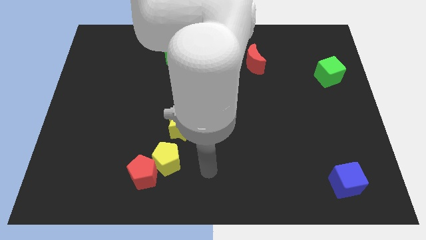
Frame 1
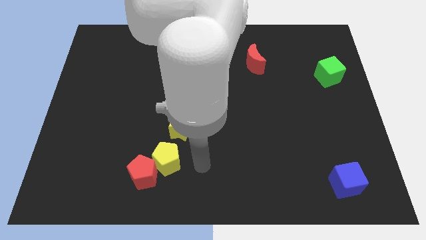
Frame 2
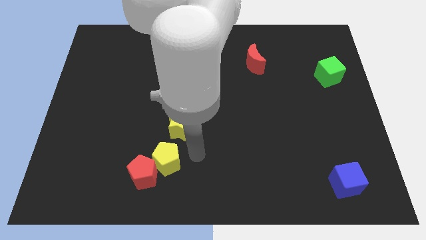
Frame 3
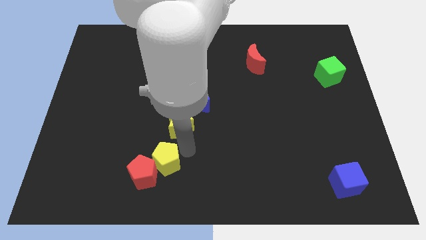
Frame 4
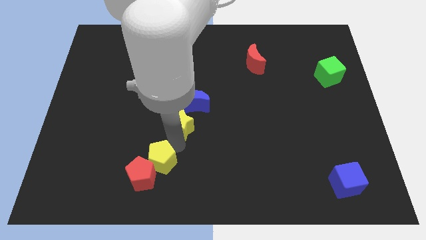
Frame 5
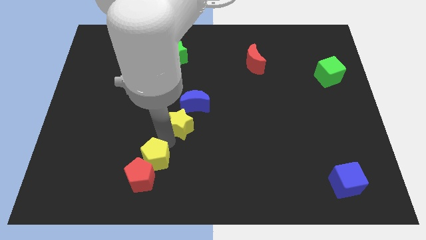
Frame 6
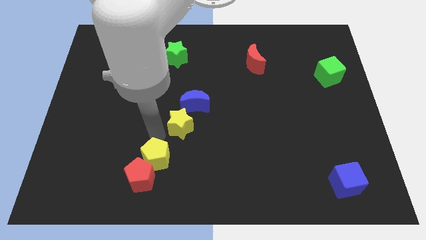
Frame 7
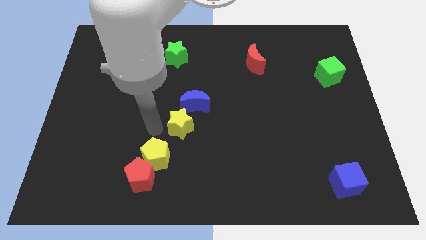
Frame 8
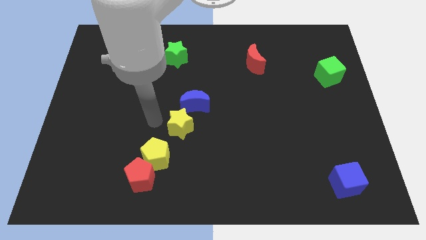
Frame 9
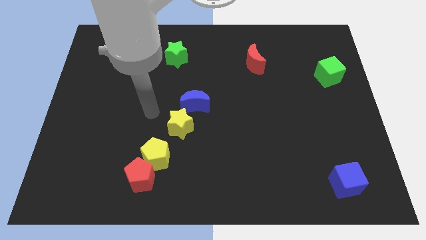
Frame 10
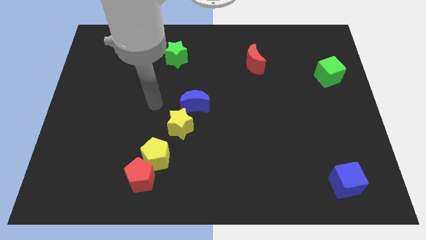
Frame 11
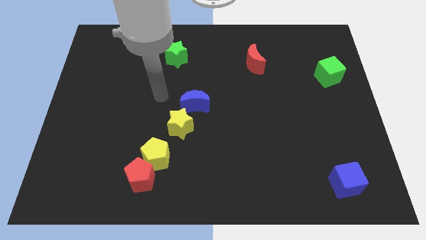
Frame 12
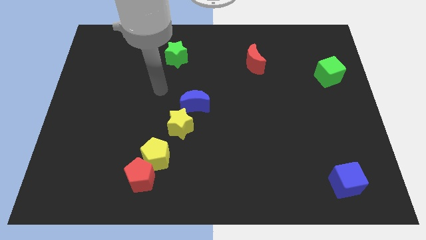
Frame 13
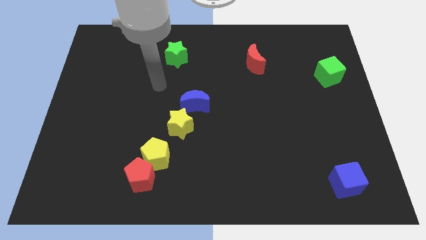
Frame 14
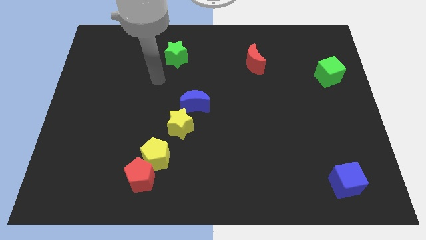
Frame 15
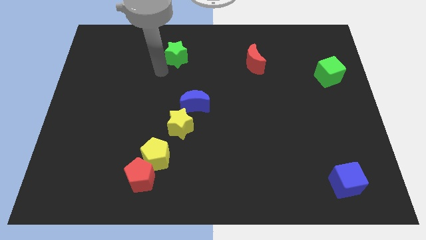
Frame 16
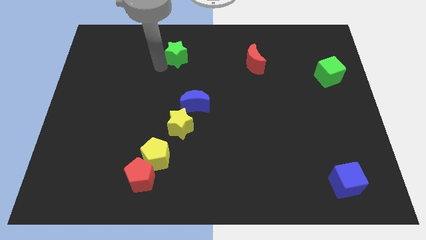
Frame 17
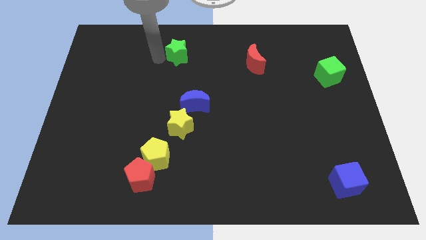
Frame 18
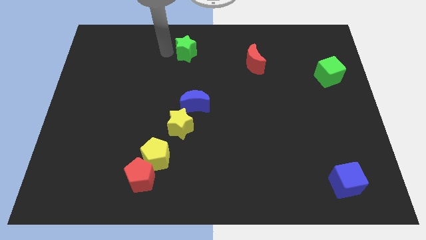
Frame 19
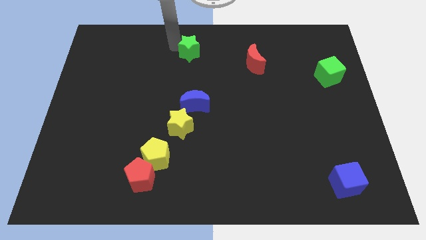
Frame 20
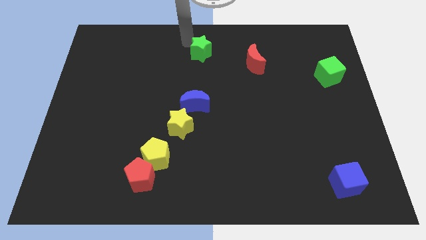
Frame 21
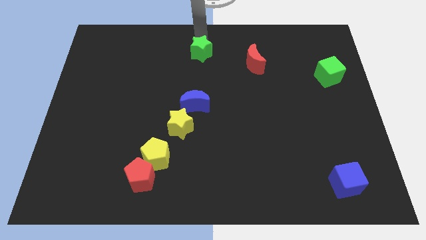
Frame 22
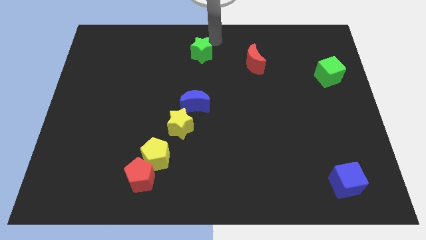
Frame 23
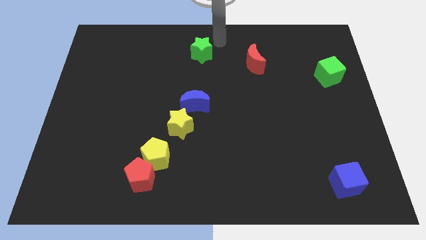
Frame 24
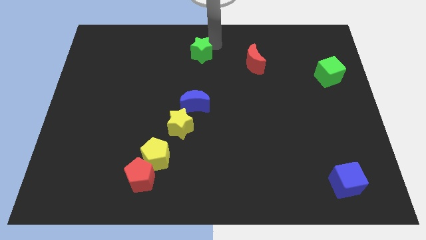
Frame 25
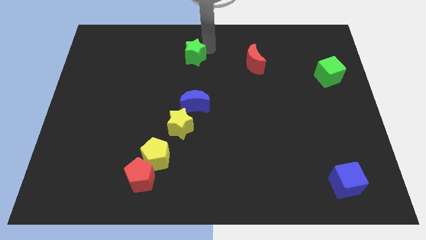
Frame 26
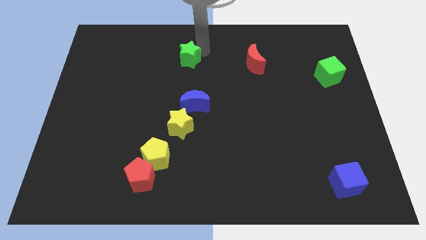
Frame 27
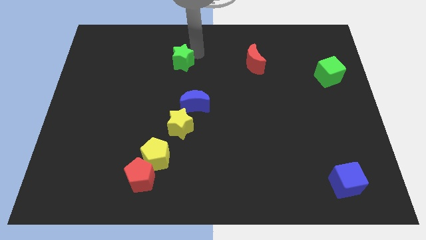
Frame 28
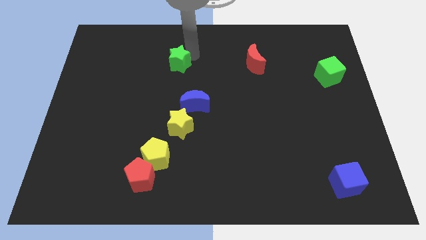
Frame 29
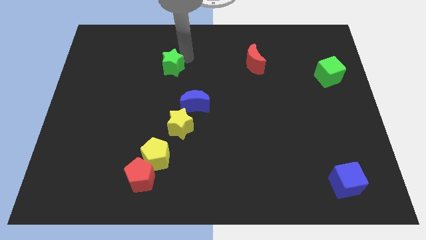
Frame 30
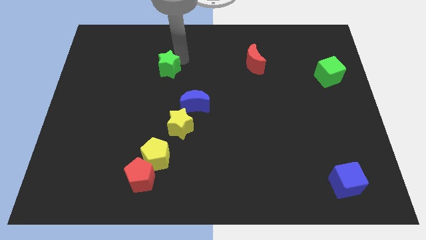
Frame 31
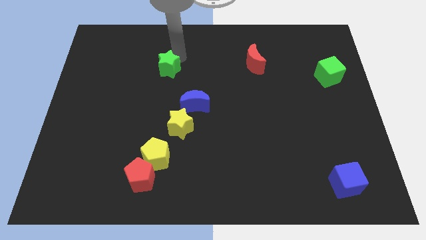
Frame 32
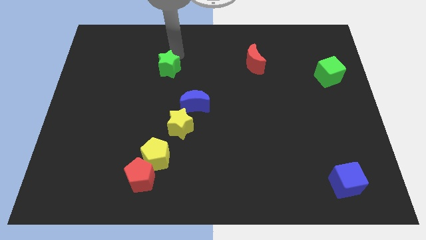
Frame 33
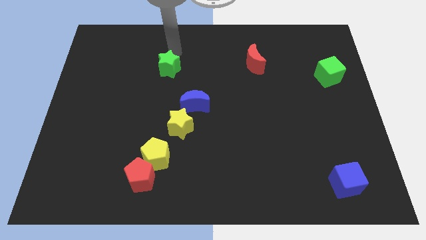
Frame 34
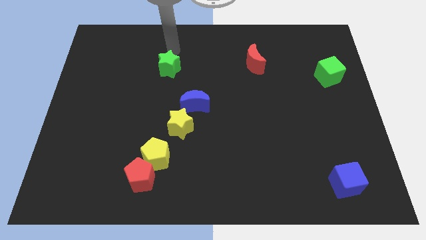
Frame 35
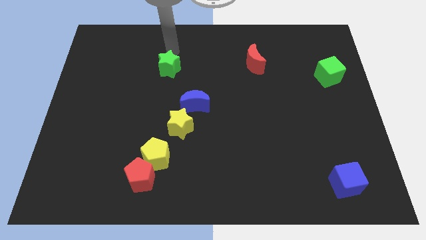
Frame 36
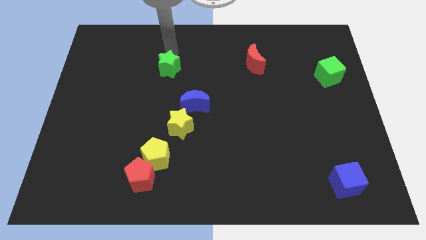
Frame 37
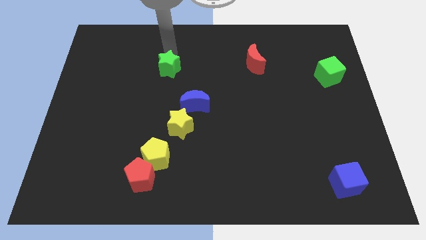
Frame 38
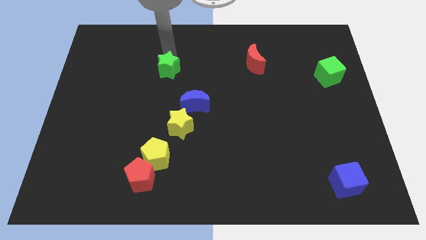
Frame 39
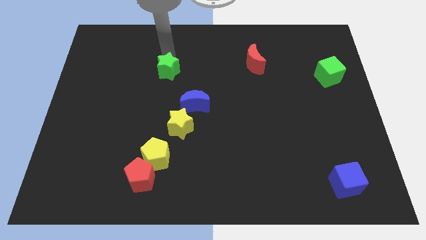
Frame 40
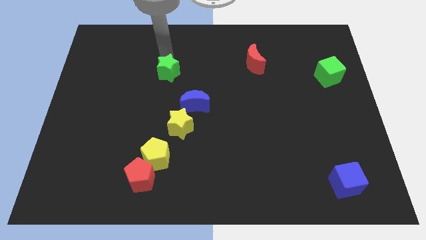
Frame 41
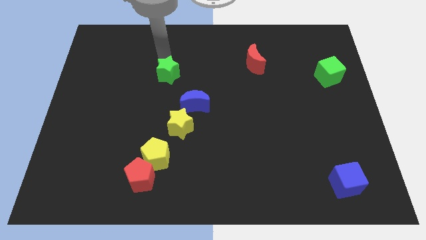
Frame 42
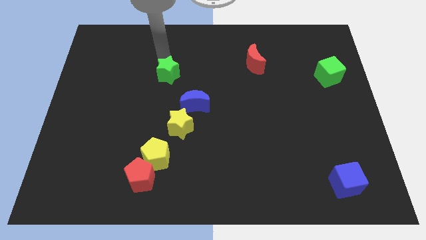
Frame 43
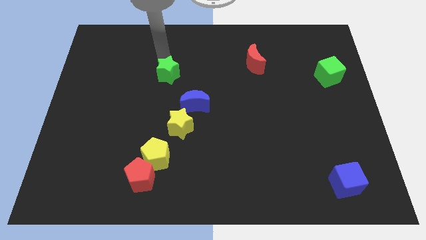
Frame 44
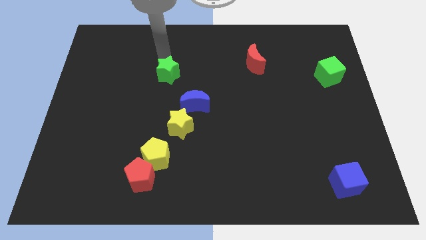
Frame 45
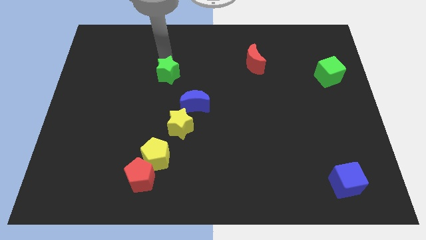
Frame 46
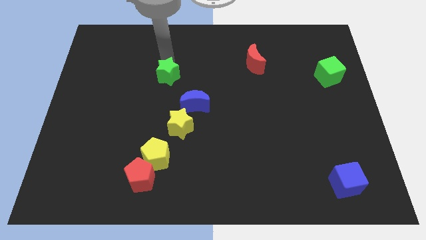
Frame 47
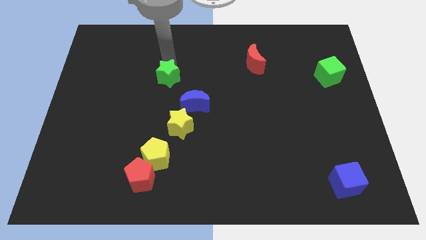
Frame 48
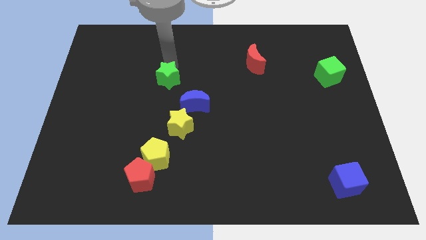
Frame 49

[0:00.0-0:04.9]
slide the green star downwards somewhat

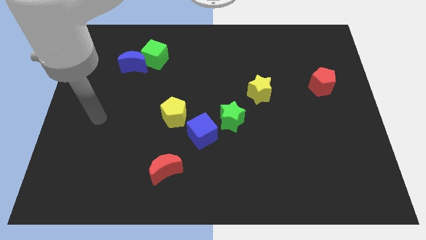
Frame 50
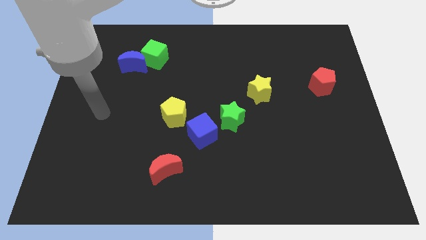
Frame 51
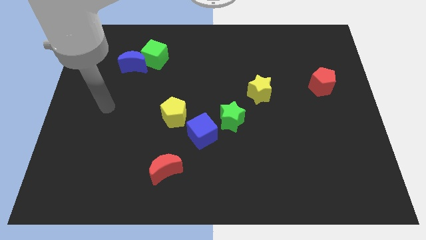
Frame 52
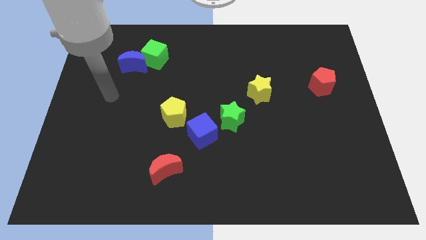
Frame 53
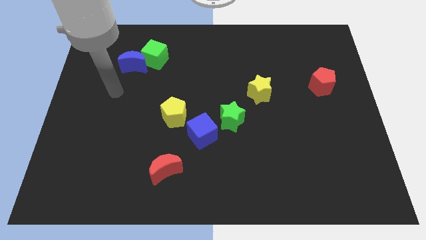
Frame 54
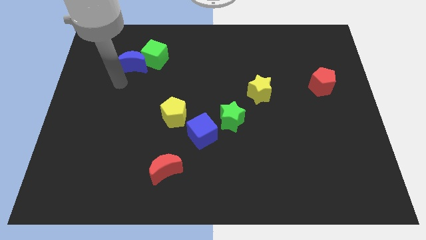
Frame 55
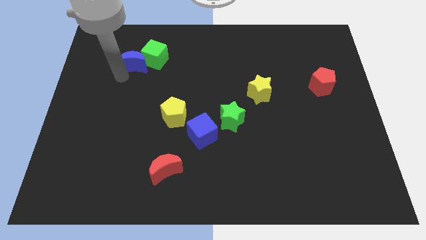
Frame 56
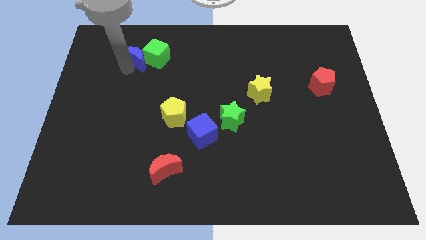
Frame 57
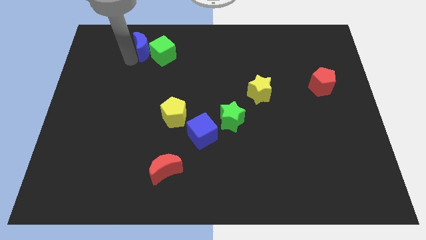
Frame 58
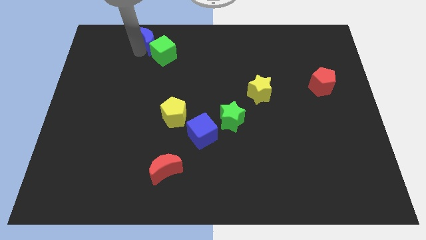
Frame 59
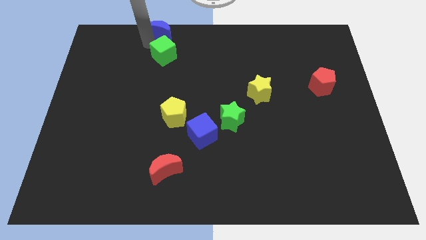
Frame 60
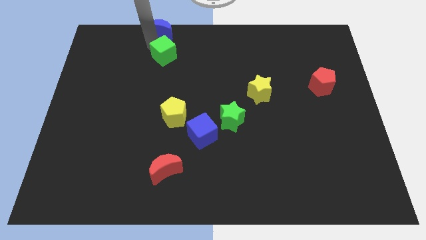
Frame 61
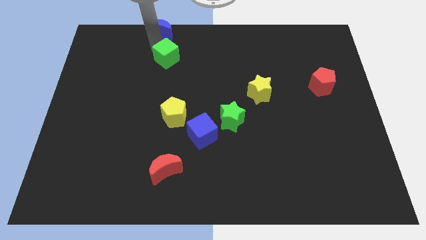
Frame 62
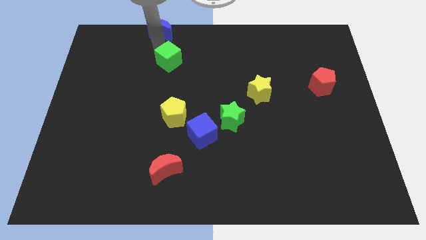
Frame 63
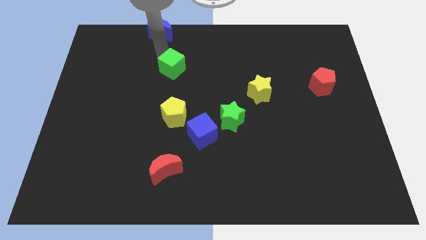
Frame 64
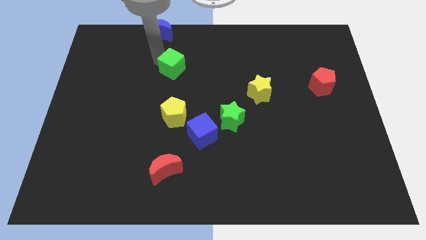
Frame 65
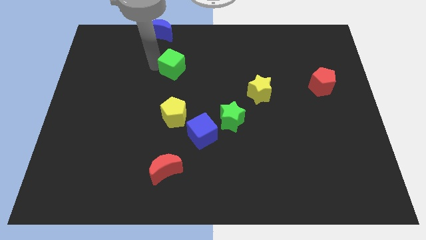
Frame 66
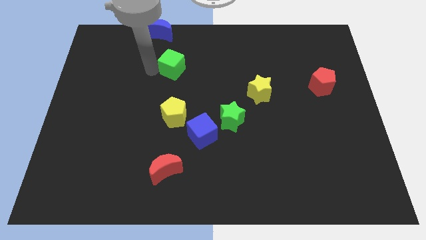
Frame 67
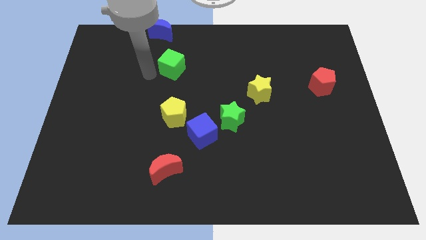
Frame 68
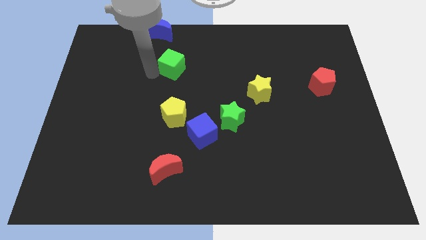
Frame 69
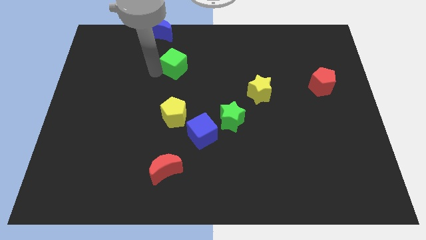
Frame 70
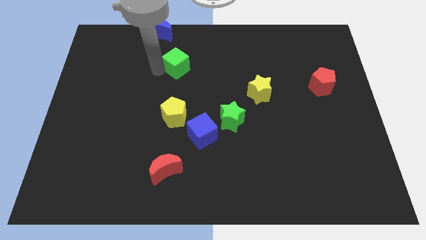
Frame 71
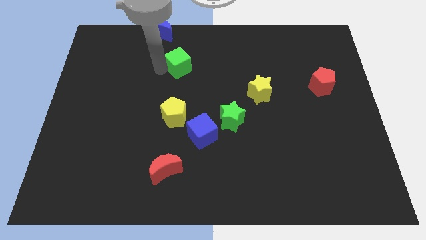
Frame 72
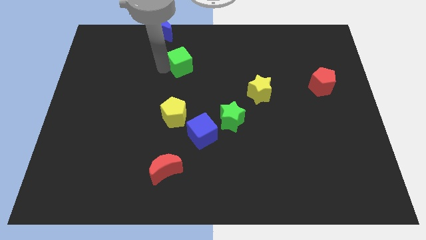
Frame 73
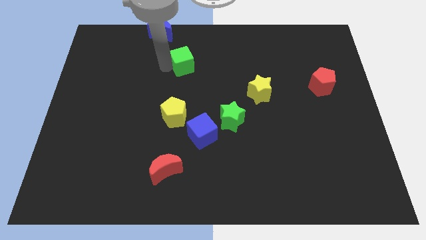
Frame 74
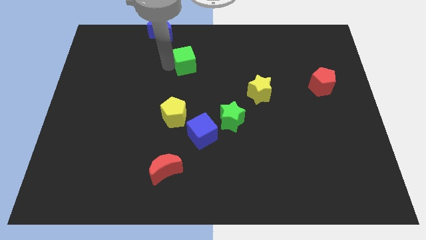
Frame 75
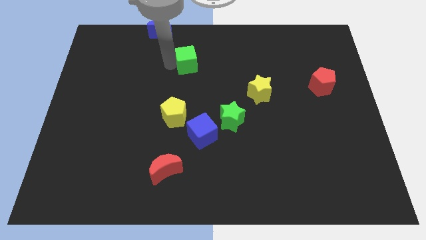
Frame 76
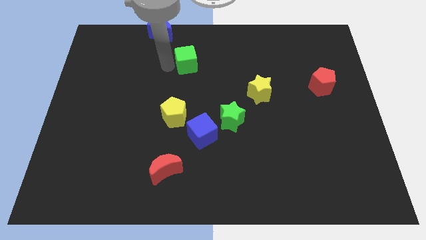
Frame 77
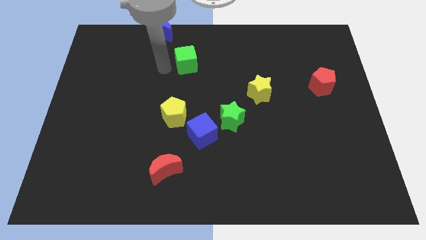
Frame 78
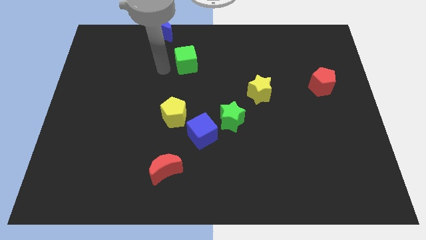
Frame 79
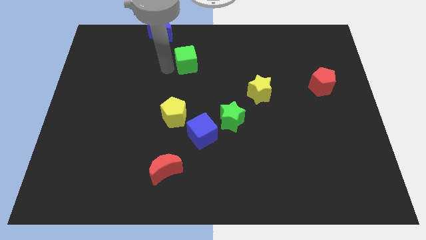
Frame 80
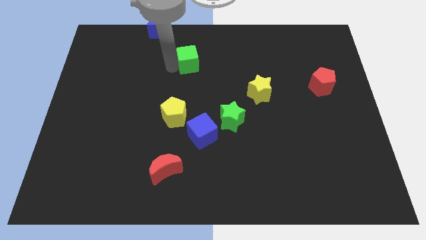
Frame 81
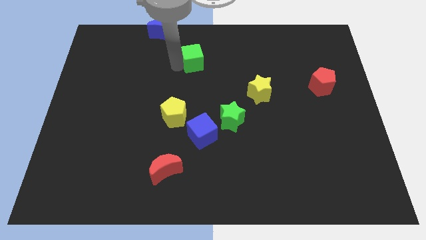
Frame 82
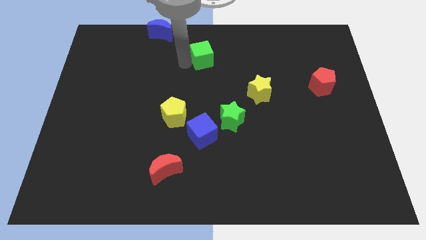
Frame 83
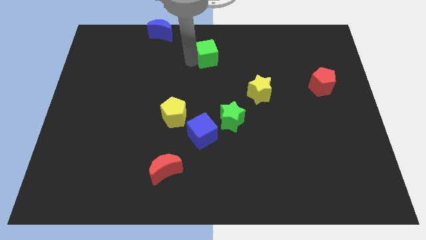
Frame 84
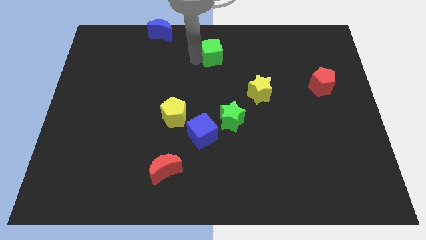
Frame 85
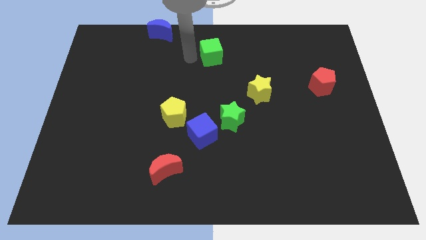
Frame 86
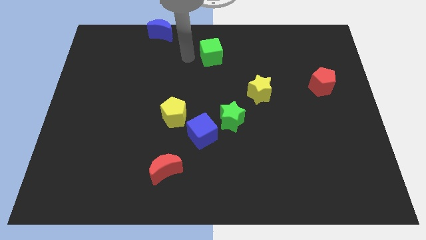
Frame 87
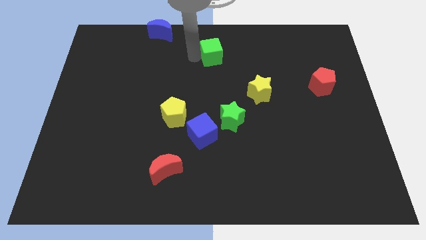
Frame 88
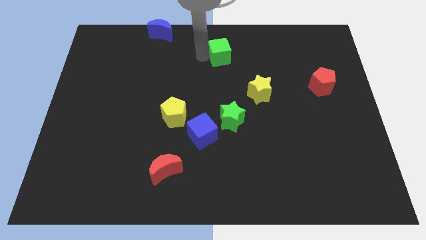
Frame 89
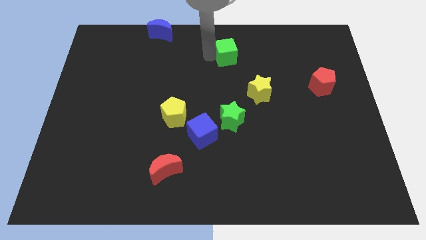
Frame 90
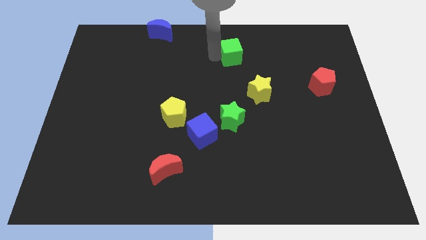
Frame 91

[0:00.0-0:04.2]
move the green cube right
